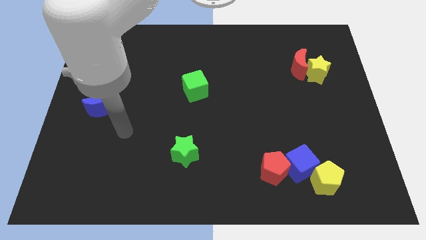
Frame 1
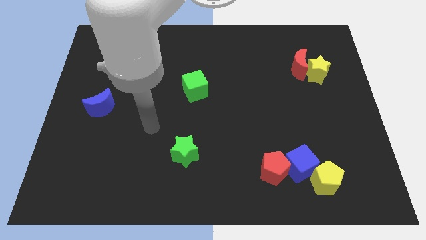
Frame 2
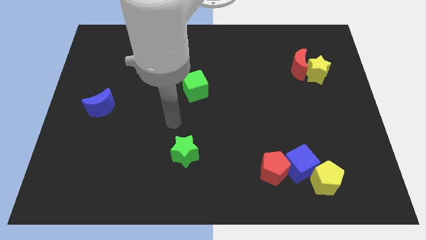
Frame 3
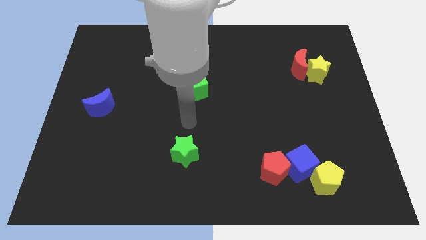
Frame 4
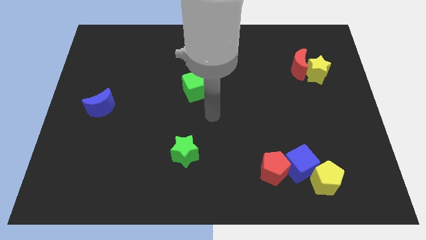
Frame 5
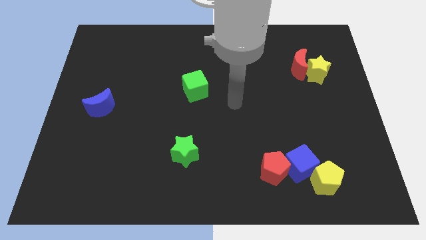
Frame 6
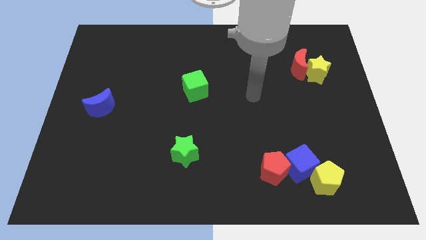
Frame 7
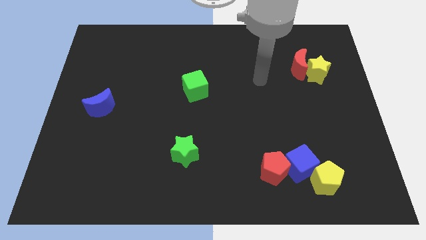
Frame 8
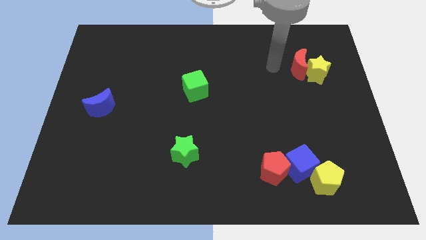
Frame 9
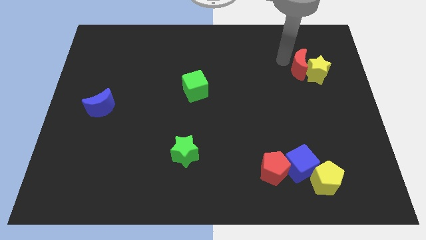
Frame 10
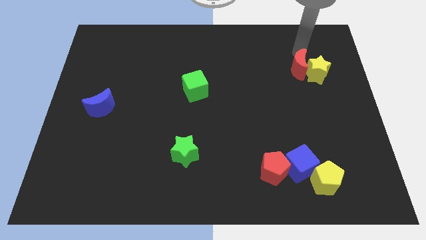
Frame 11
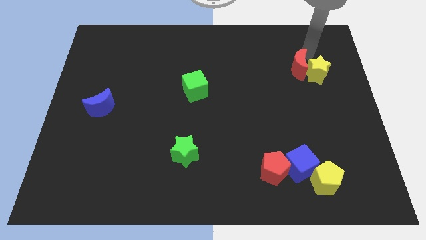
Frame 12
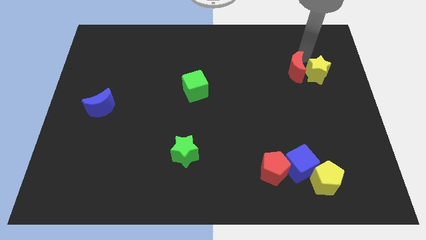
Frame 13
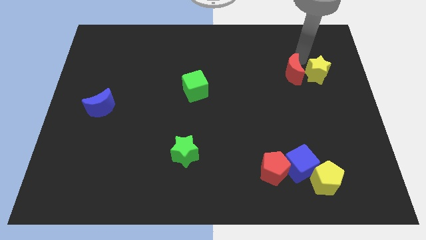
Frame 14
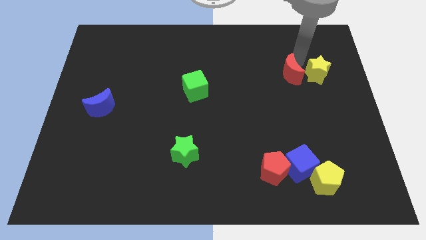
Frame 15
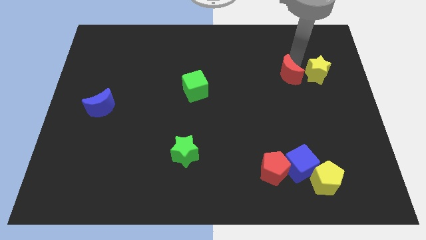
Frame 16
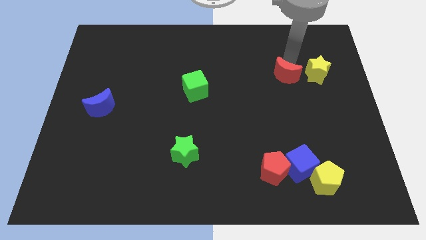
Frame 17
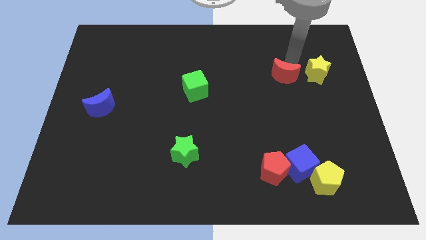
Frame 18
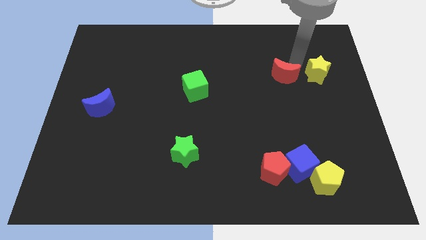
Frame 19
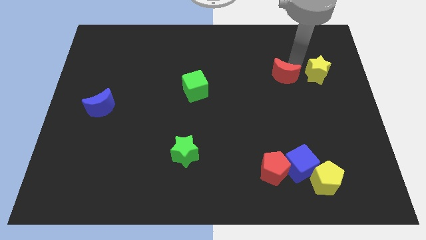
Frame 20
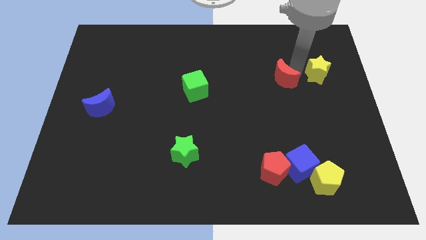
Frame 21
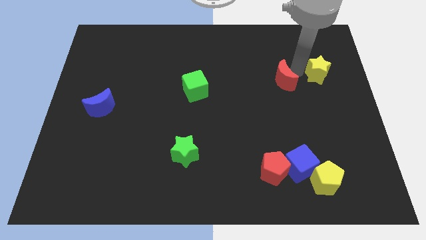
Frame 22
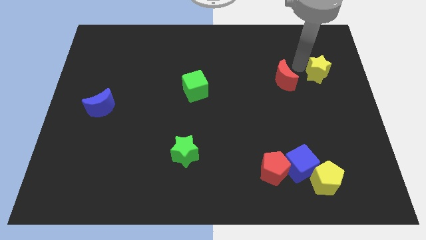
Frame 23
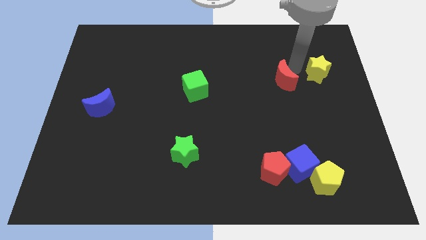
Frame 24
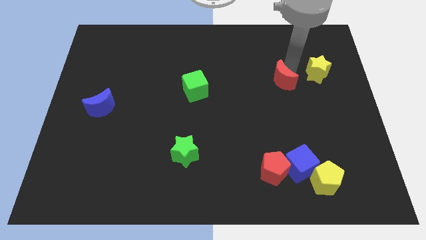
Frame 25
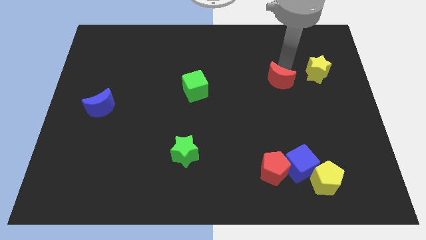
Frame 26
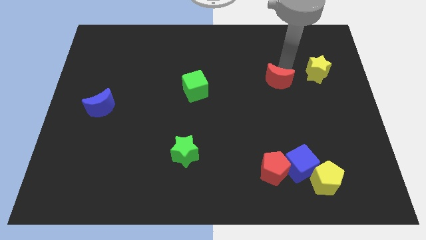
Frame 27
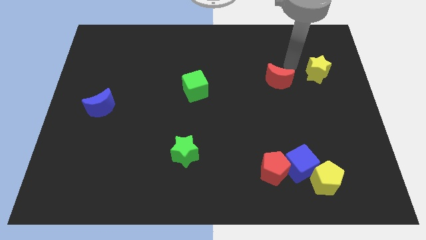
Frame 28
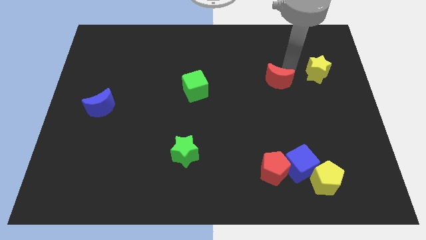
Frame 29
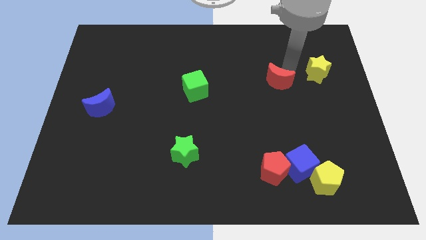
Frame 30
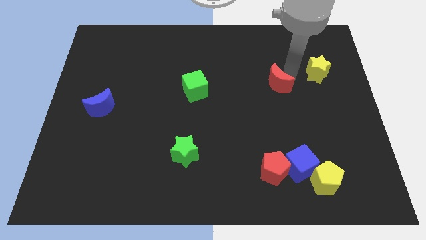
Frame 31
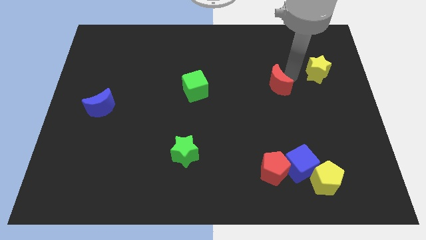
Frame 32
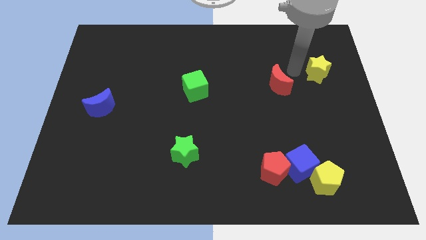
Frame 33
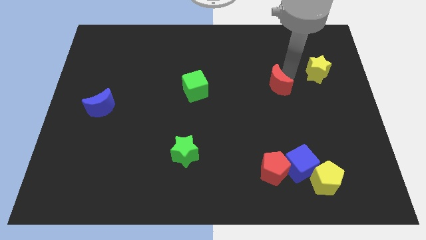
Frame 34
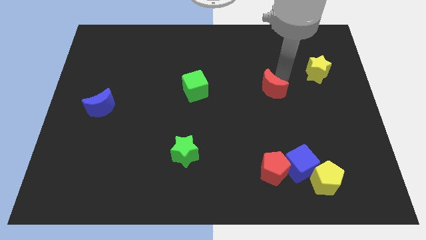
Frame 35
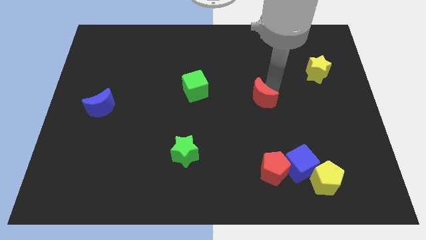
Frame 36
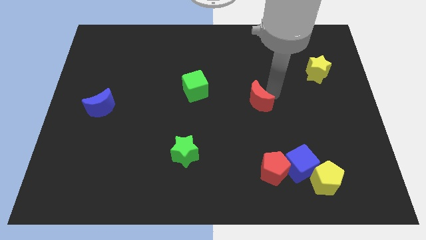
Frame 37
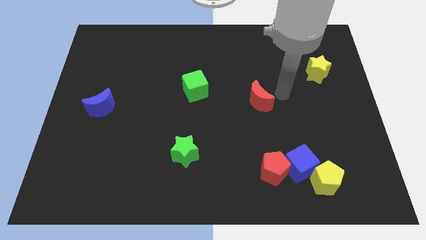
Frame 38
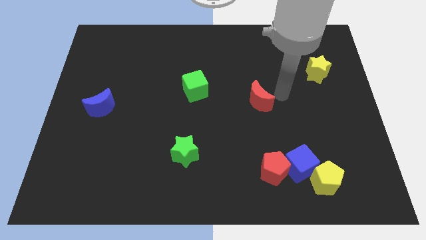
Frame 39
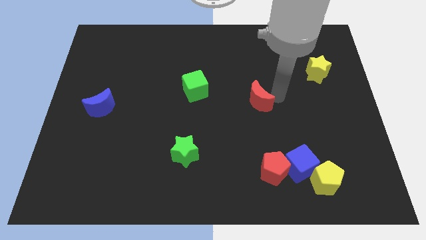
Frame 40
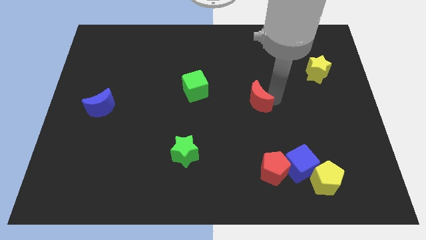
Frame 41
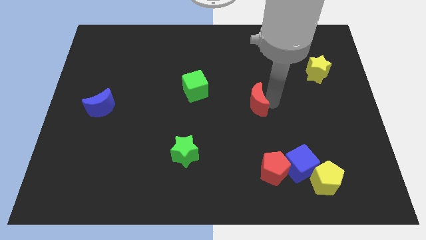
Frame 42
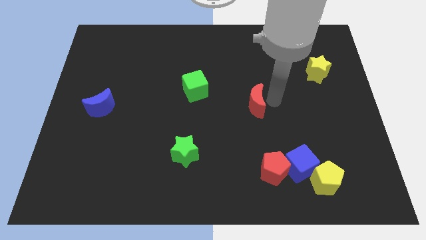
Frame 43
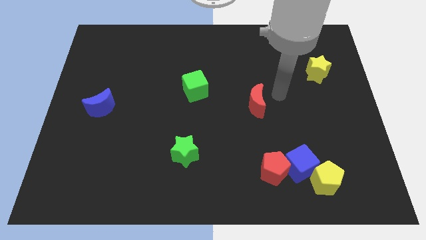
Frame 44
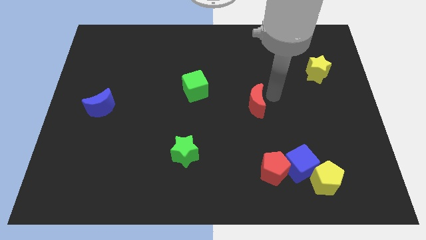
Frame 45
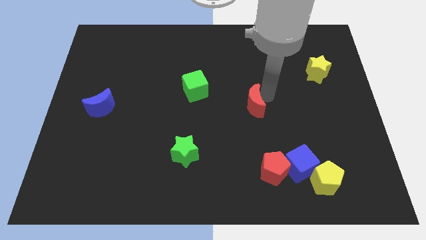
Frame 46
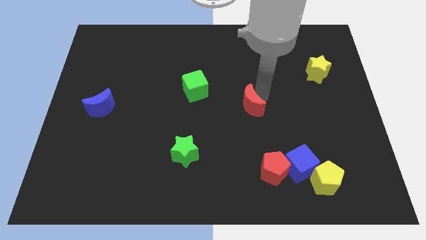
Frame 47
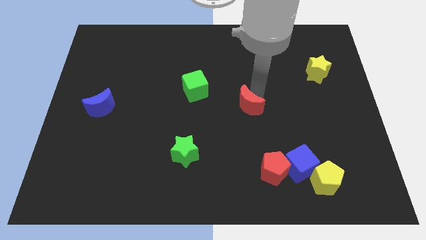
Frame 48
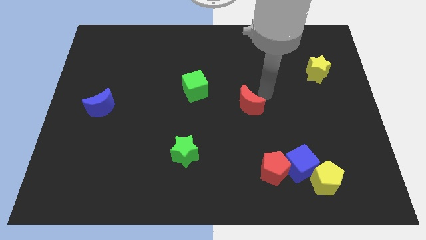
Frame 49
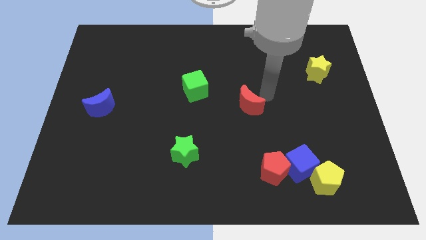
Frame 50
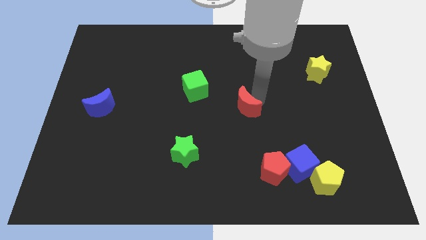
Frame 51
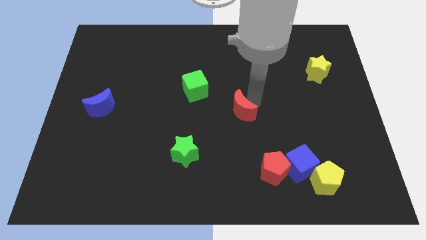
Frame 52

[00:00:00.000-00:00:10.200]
slide the red moon down and then to the left

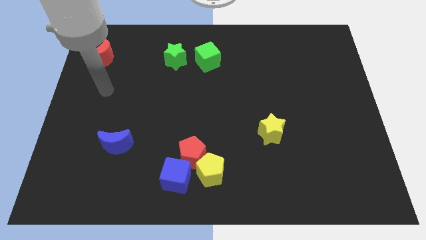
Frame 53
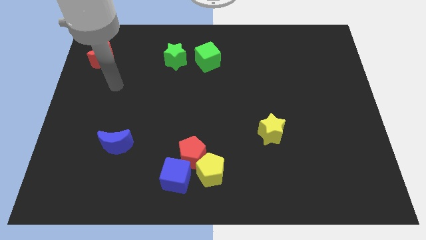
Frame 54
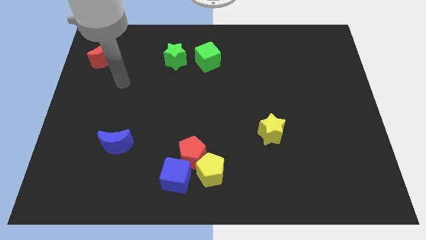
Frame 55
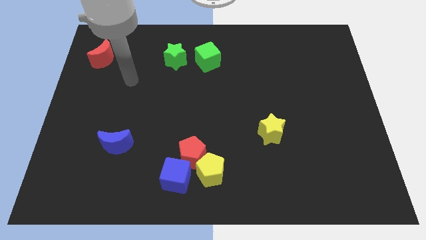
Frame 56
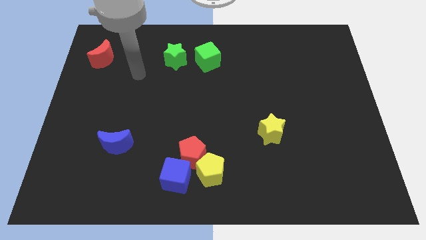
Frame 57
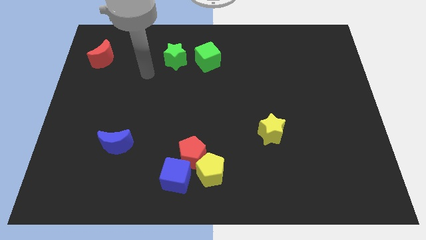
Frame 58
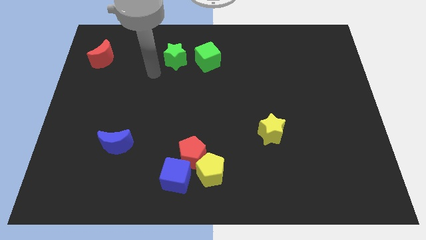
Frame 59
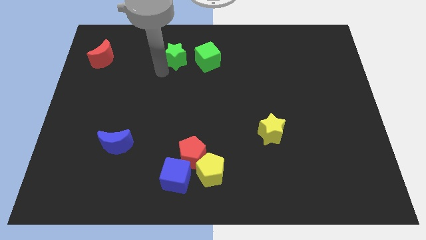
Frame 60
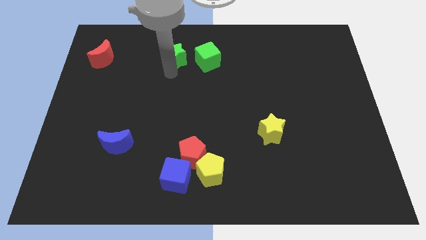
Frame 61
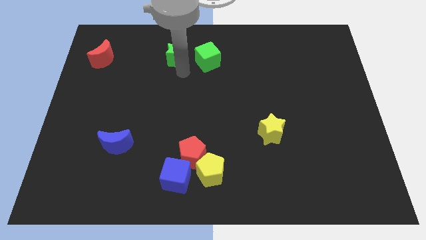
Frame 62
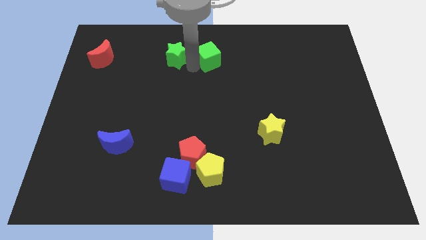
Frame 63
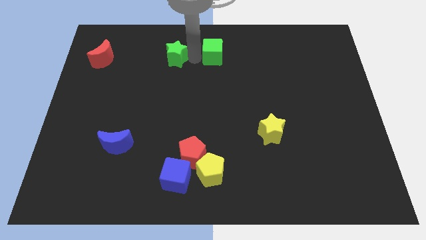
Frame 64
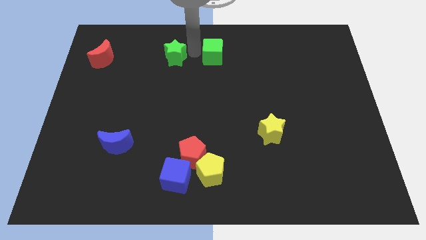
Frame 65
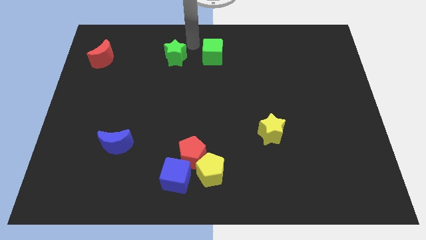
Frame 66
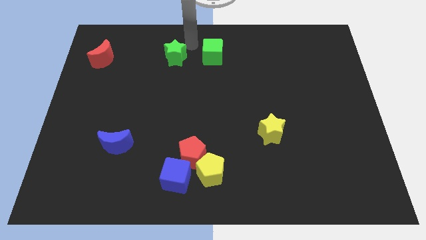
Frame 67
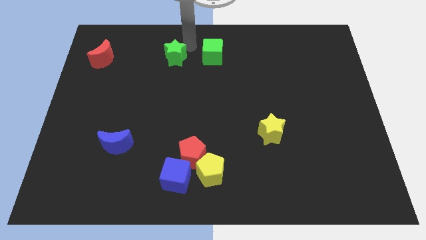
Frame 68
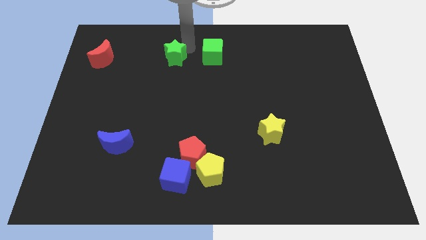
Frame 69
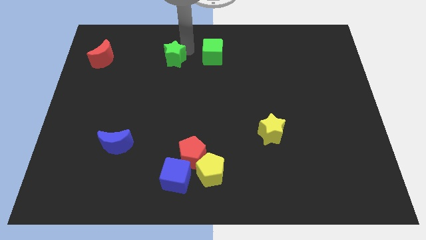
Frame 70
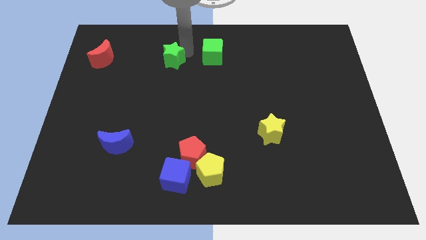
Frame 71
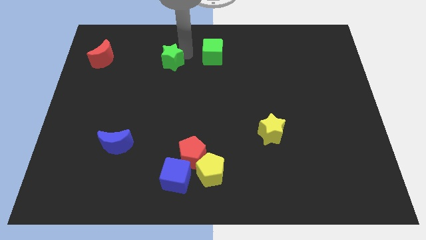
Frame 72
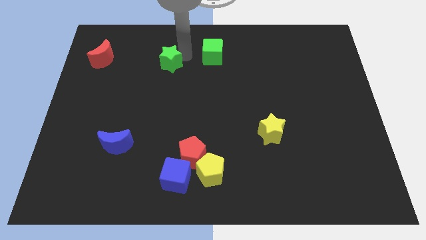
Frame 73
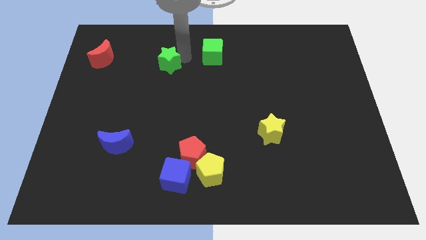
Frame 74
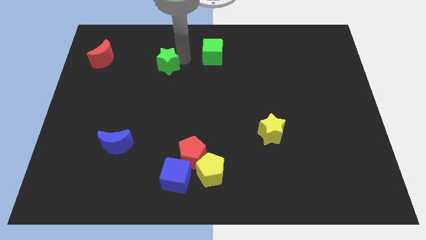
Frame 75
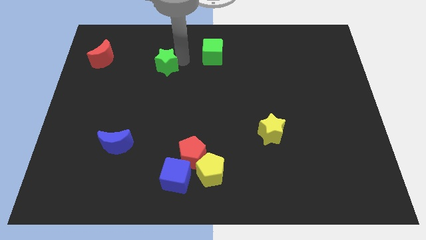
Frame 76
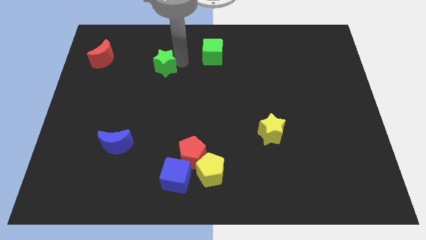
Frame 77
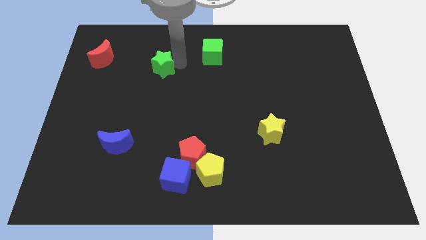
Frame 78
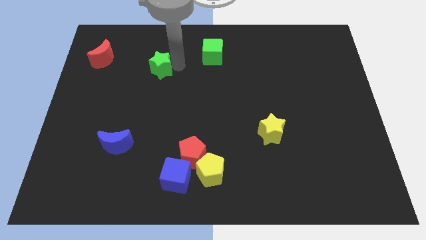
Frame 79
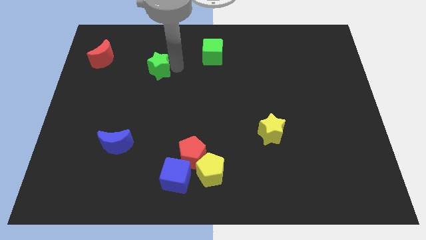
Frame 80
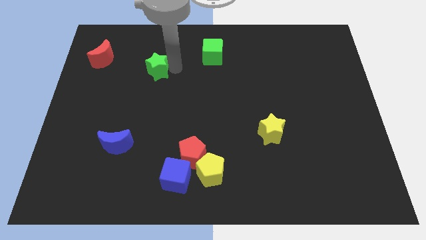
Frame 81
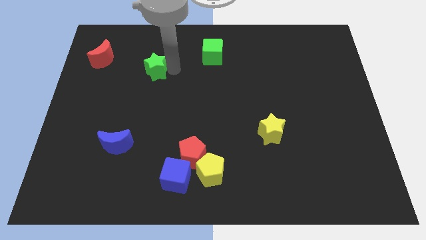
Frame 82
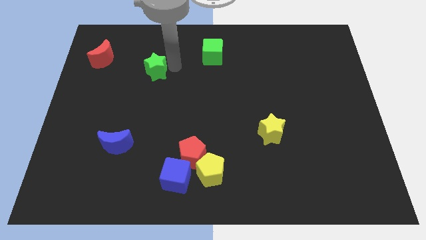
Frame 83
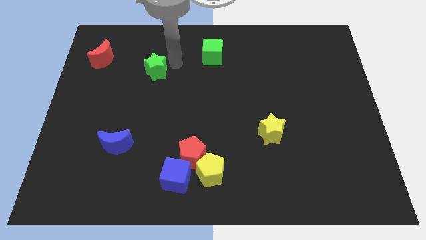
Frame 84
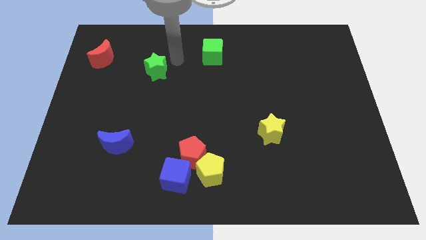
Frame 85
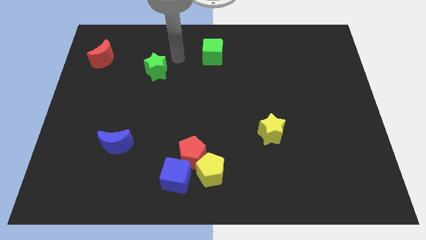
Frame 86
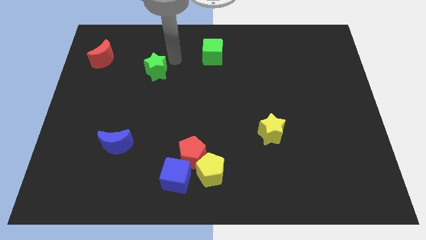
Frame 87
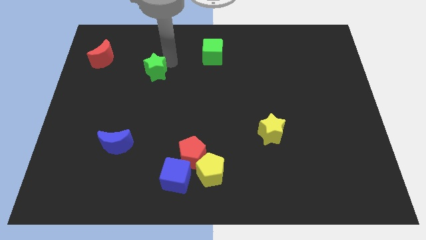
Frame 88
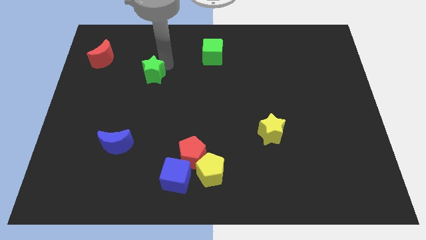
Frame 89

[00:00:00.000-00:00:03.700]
move the green star downwards and then left a little
